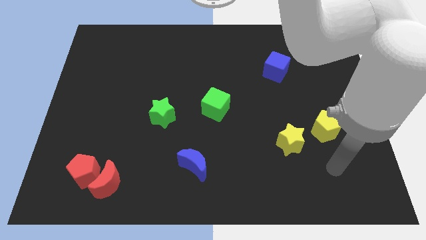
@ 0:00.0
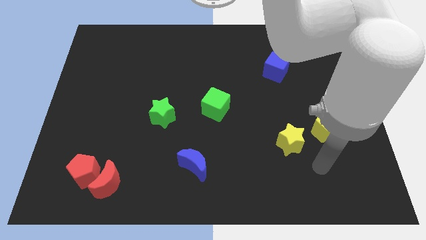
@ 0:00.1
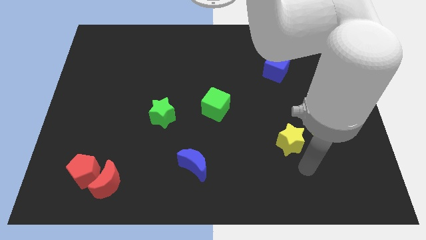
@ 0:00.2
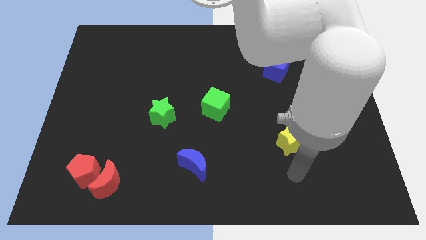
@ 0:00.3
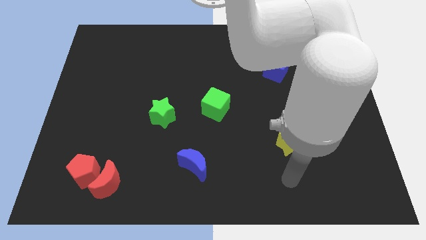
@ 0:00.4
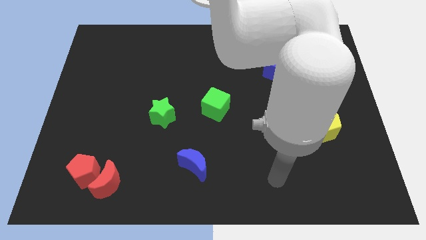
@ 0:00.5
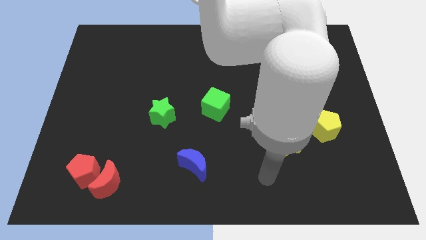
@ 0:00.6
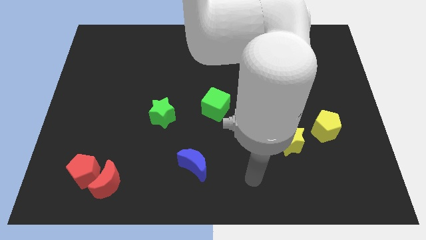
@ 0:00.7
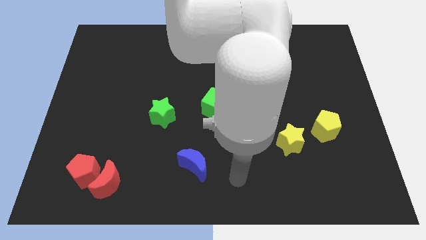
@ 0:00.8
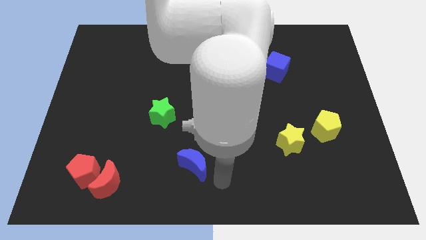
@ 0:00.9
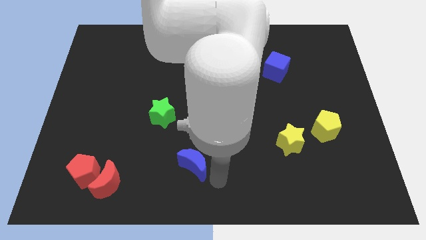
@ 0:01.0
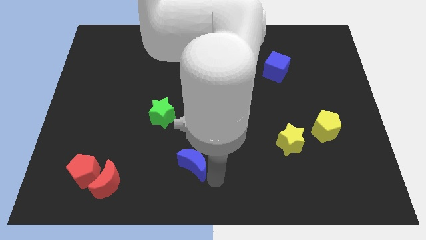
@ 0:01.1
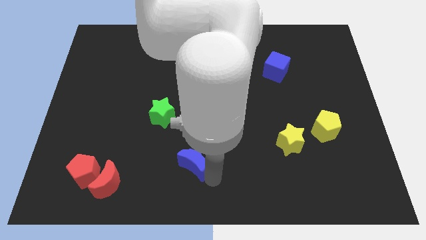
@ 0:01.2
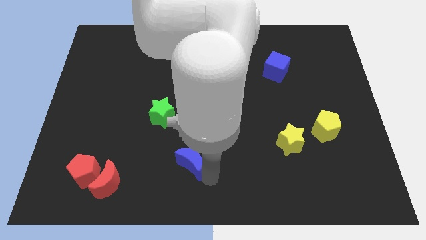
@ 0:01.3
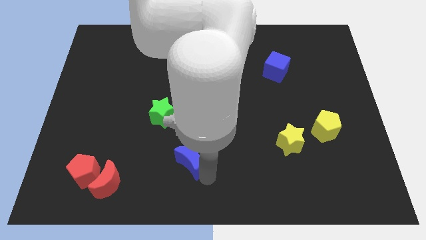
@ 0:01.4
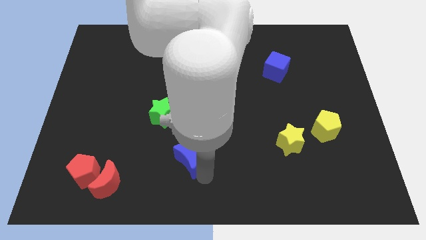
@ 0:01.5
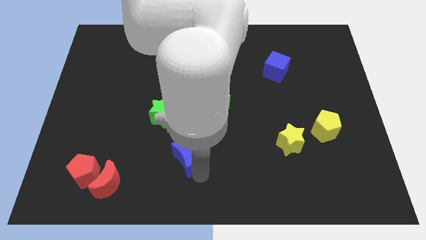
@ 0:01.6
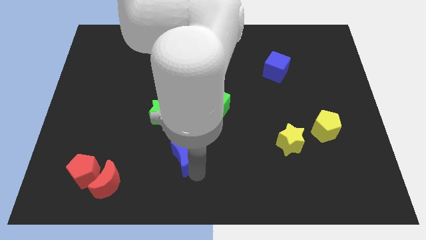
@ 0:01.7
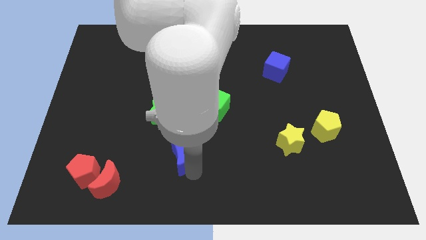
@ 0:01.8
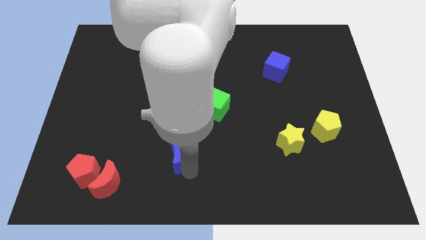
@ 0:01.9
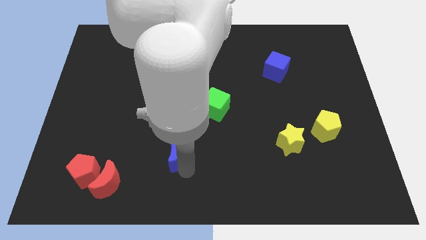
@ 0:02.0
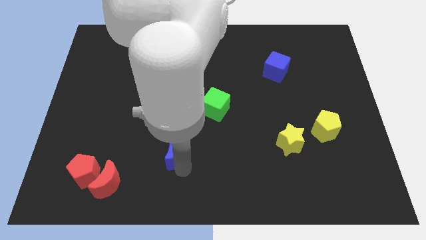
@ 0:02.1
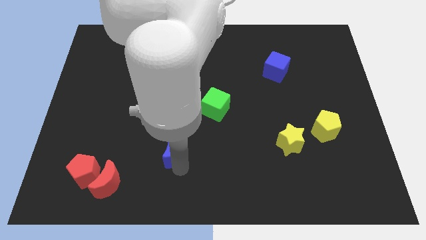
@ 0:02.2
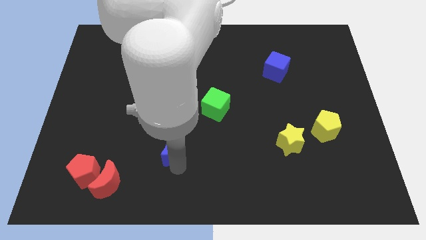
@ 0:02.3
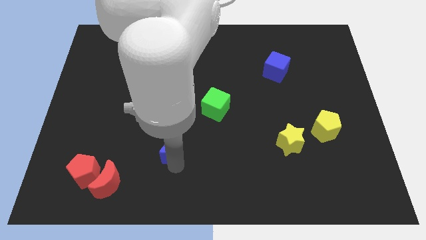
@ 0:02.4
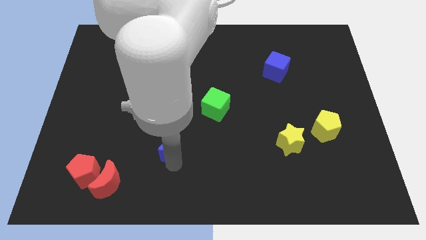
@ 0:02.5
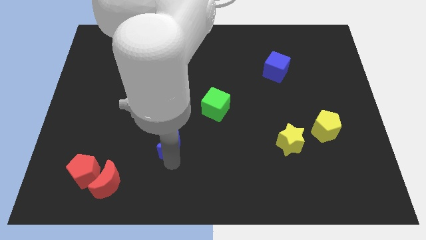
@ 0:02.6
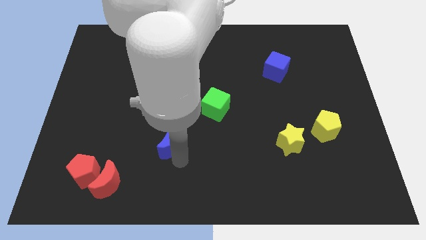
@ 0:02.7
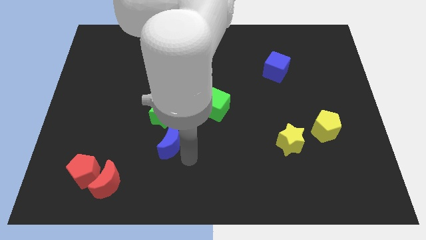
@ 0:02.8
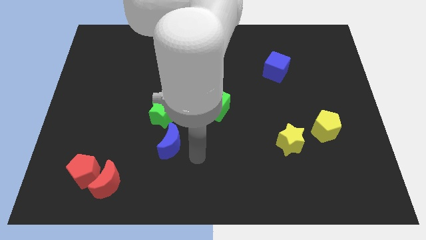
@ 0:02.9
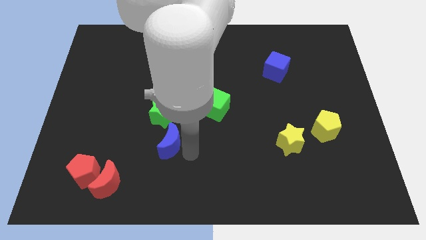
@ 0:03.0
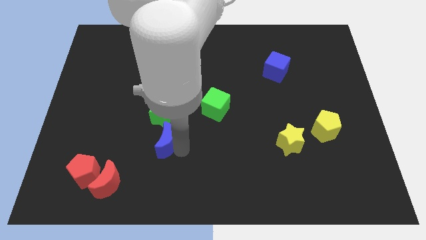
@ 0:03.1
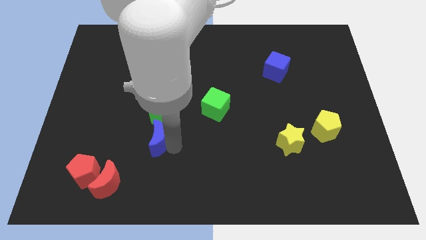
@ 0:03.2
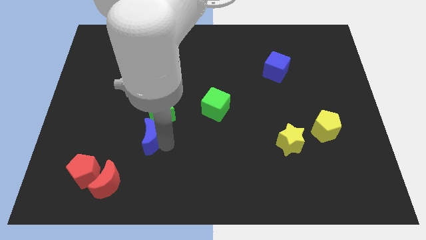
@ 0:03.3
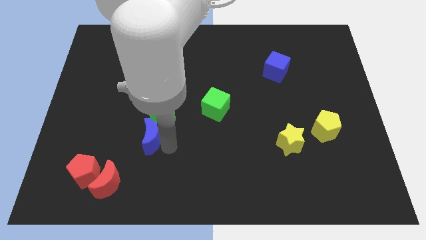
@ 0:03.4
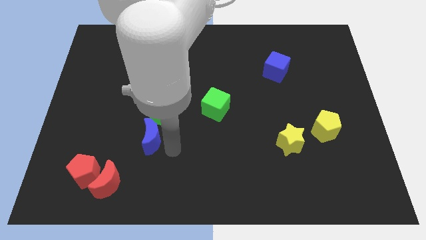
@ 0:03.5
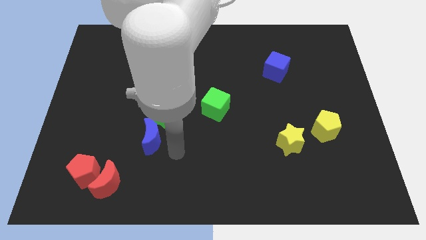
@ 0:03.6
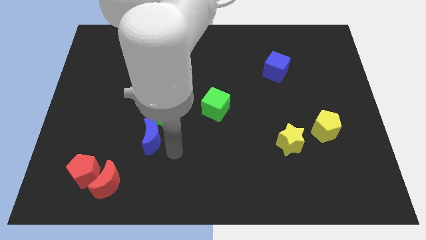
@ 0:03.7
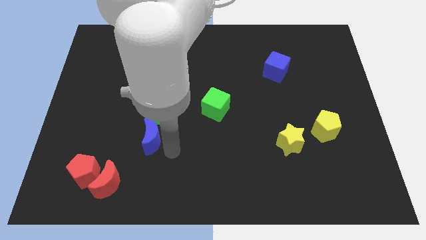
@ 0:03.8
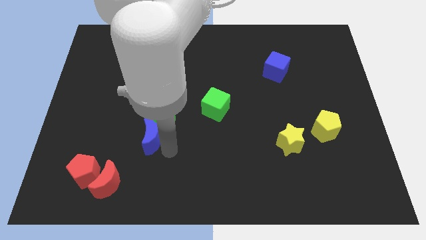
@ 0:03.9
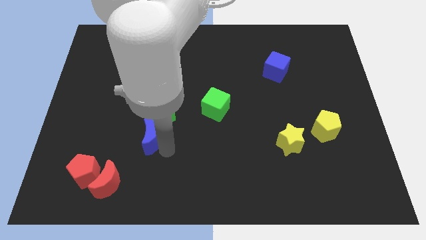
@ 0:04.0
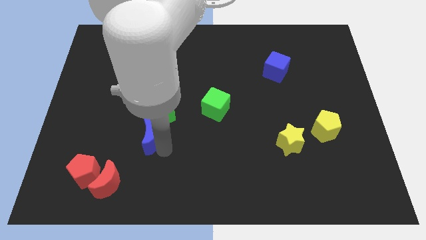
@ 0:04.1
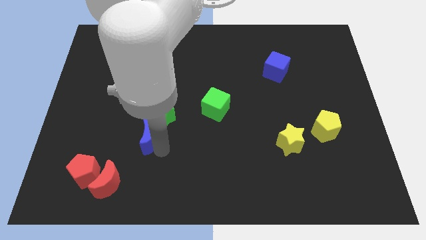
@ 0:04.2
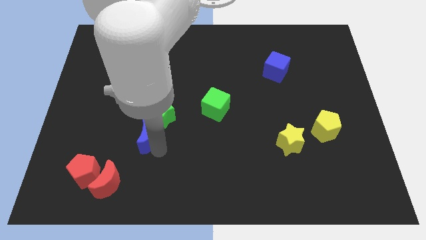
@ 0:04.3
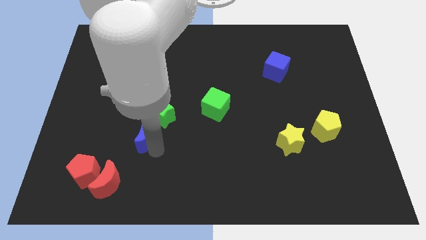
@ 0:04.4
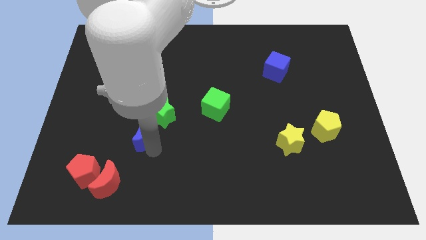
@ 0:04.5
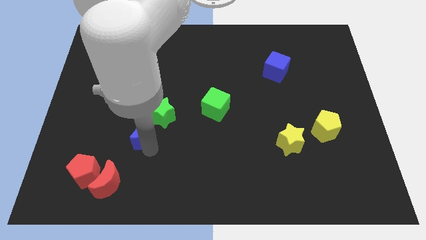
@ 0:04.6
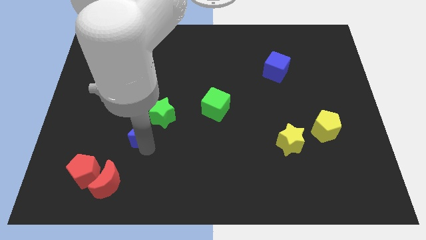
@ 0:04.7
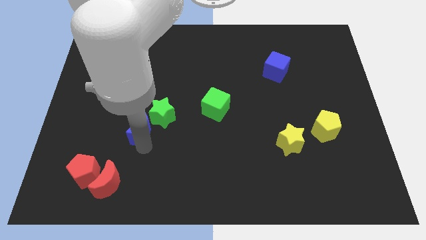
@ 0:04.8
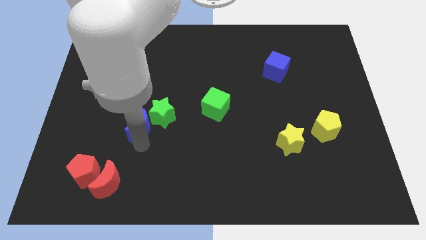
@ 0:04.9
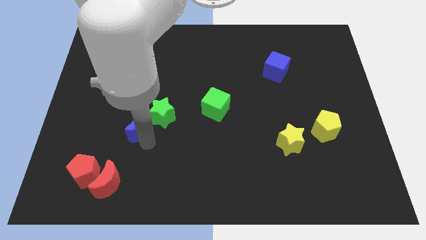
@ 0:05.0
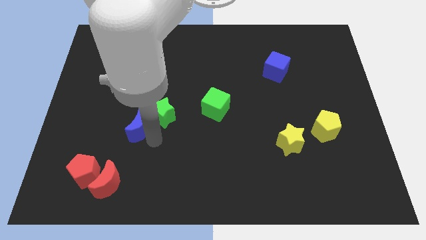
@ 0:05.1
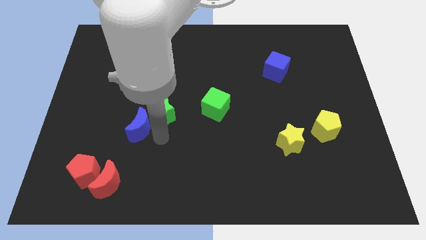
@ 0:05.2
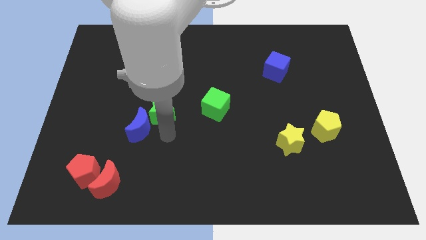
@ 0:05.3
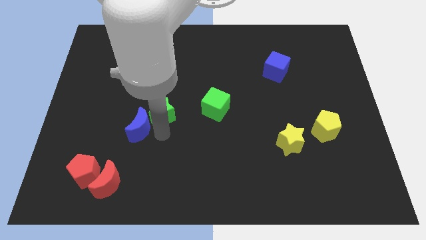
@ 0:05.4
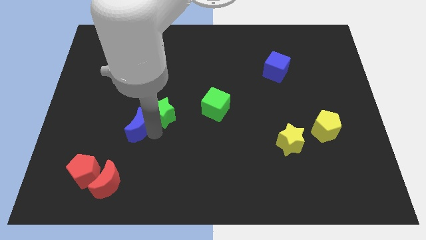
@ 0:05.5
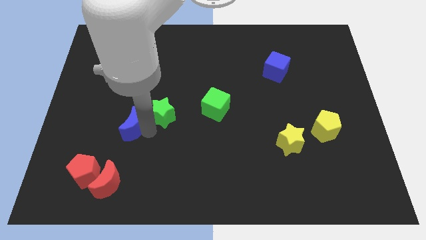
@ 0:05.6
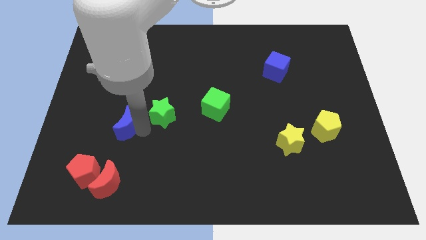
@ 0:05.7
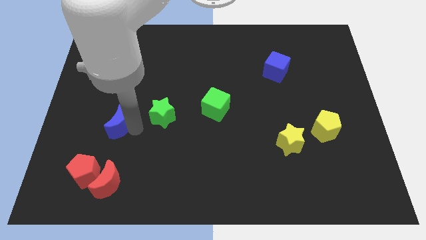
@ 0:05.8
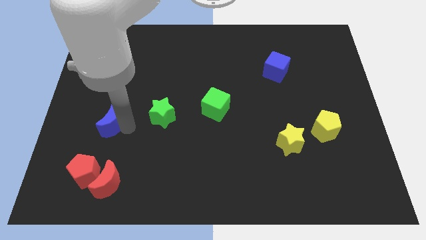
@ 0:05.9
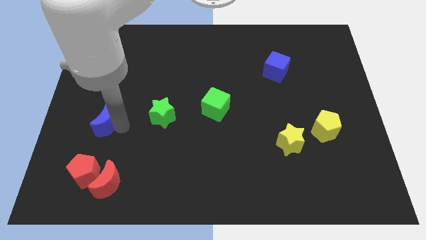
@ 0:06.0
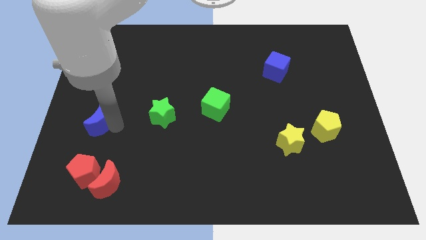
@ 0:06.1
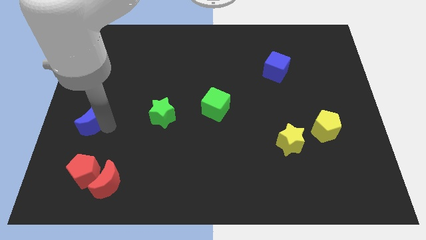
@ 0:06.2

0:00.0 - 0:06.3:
move the blue moon to the left side
